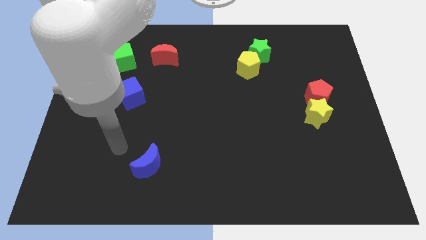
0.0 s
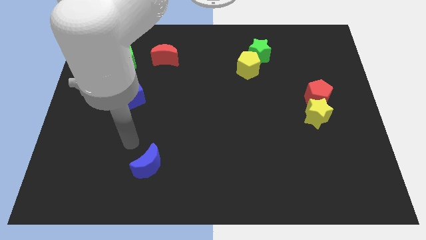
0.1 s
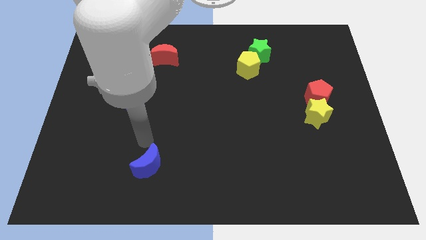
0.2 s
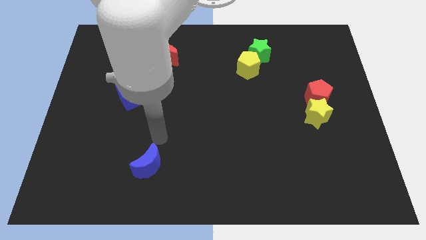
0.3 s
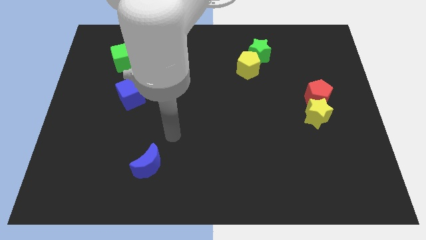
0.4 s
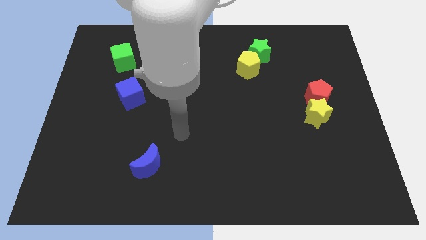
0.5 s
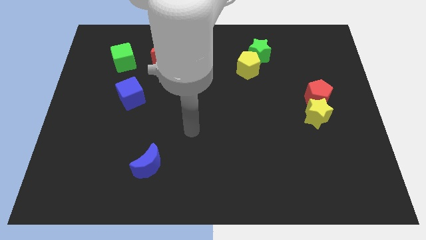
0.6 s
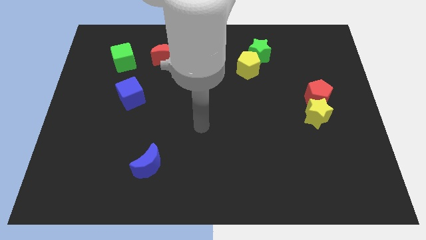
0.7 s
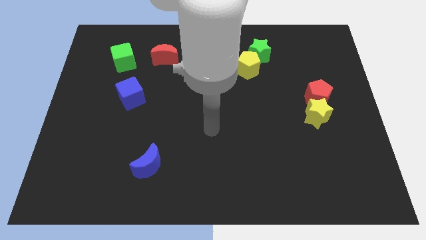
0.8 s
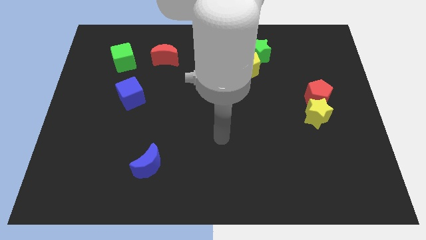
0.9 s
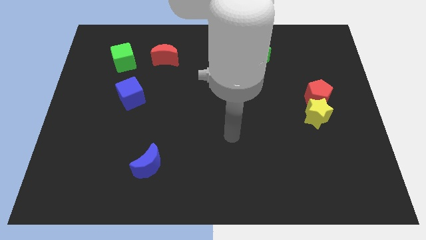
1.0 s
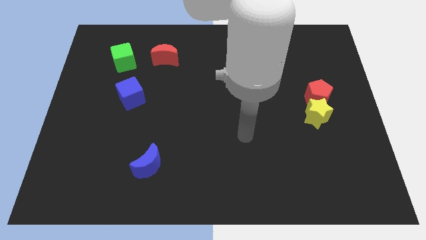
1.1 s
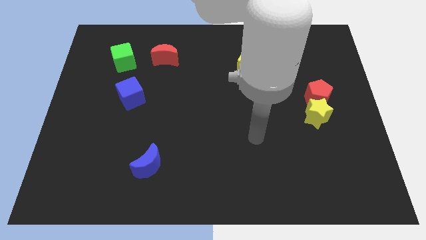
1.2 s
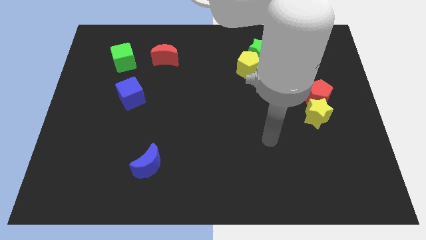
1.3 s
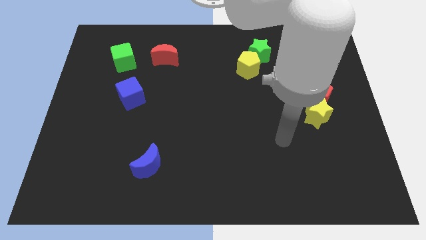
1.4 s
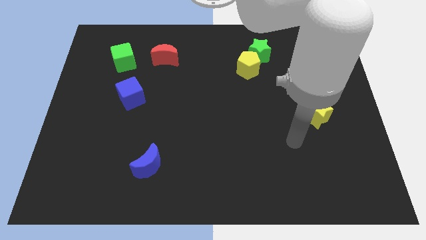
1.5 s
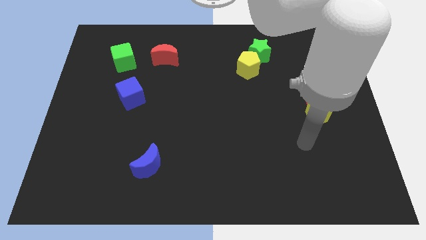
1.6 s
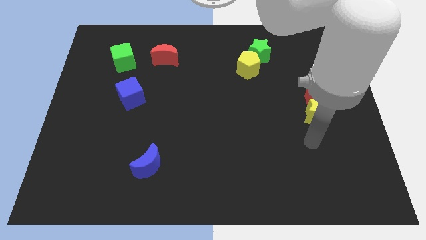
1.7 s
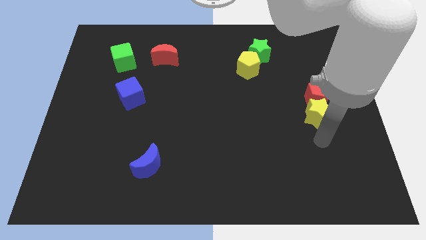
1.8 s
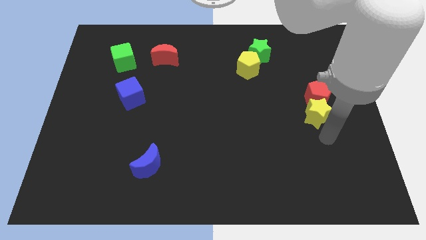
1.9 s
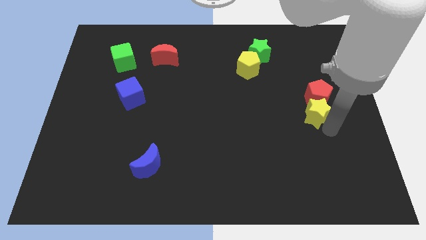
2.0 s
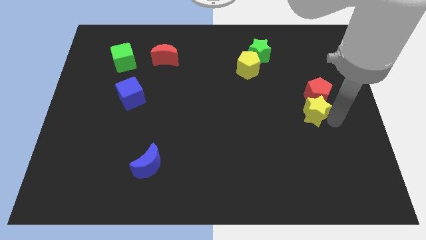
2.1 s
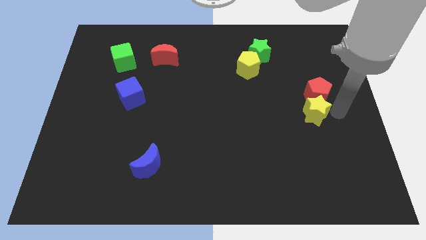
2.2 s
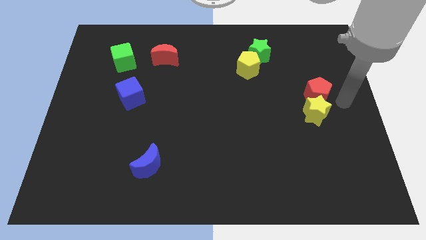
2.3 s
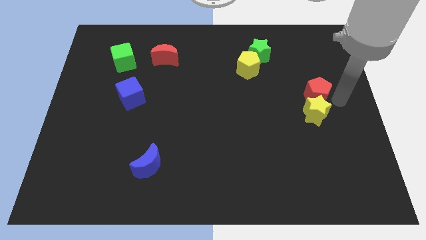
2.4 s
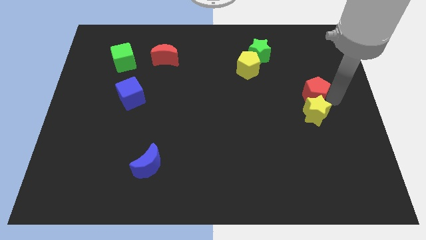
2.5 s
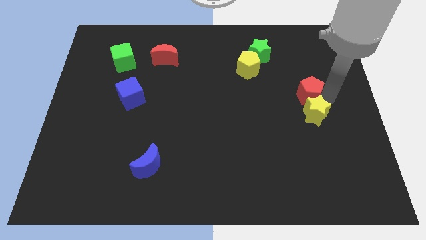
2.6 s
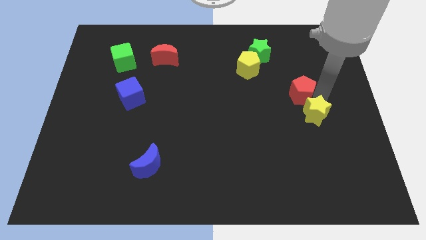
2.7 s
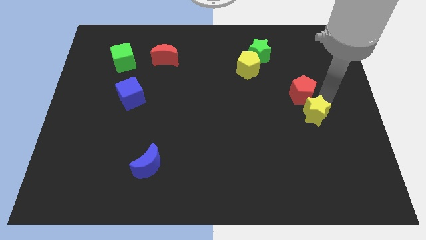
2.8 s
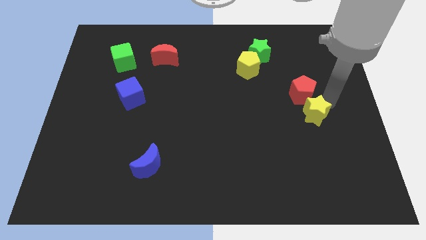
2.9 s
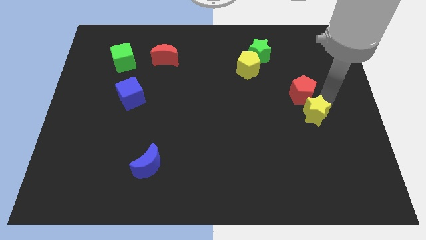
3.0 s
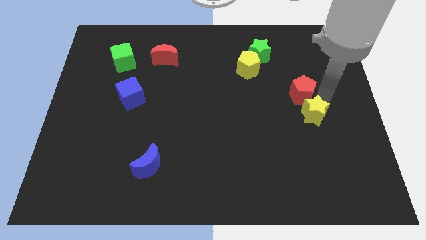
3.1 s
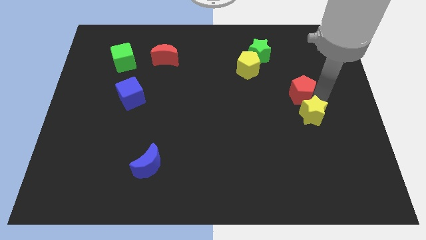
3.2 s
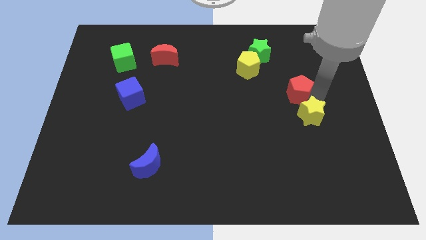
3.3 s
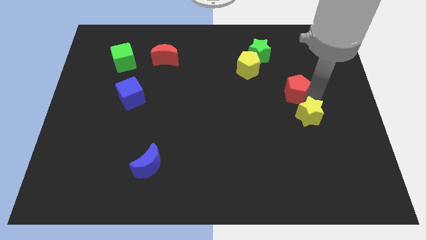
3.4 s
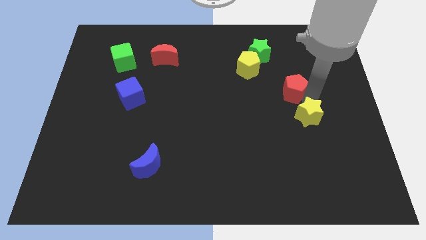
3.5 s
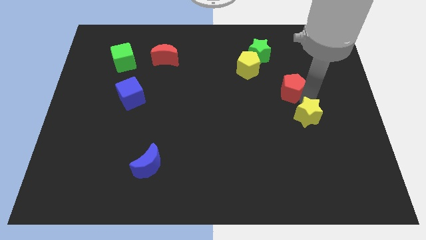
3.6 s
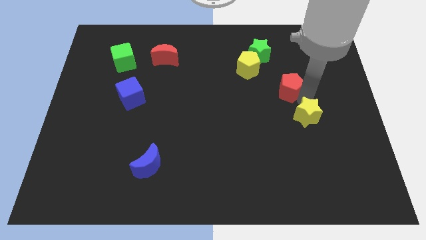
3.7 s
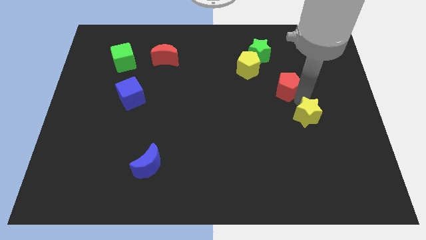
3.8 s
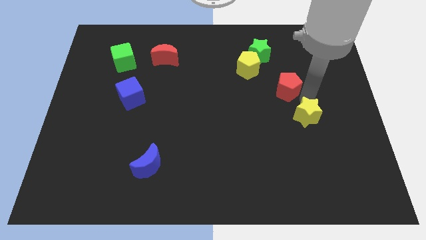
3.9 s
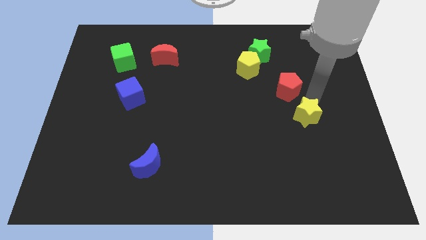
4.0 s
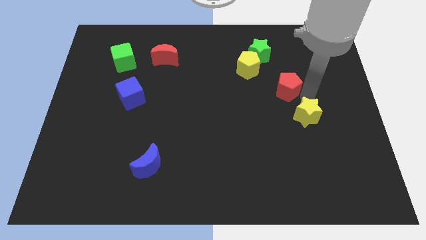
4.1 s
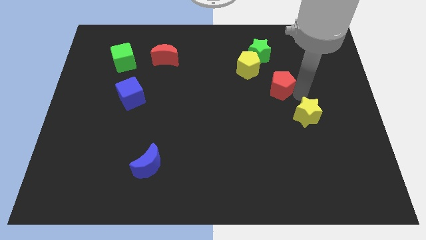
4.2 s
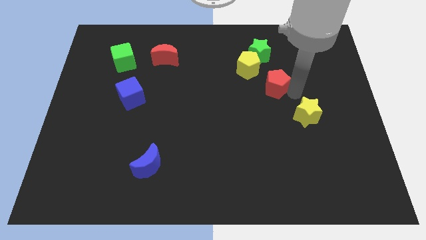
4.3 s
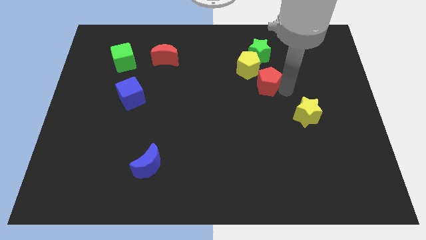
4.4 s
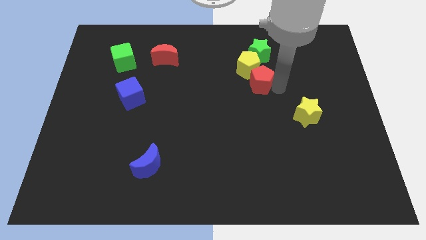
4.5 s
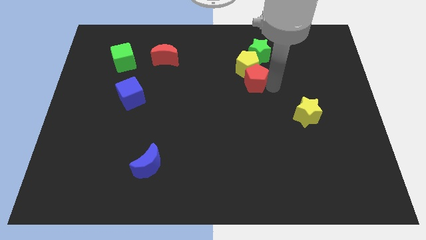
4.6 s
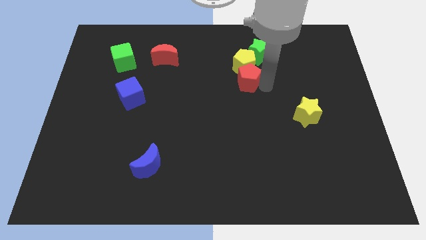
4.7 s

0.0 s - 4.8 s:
slide the red pentagon to the bottom left of the green star

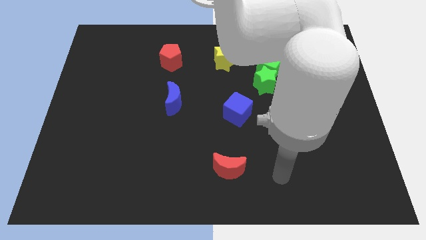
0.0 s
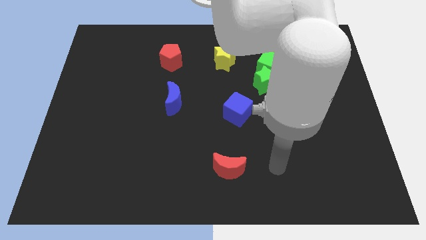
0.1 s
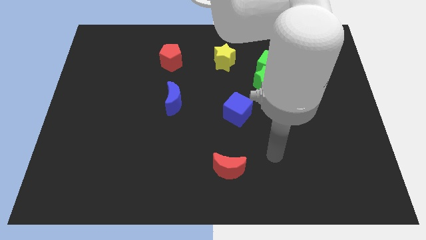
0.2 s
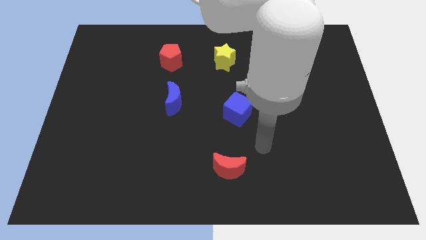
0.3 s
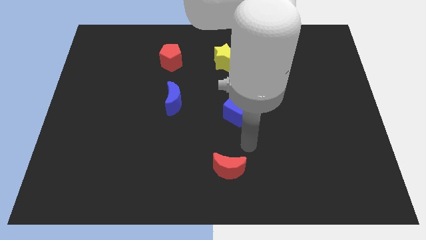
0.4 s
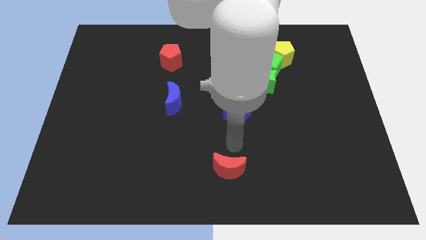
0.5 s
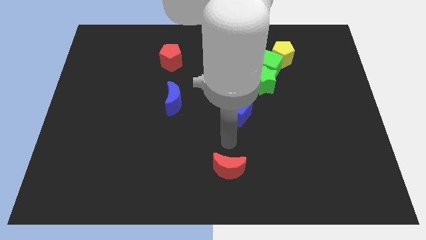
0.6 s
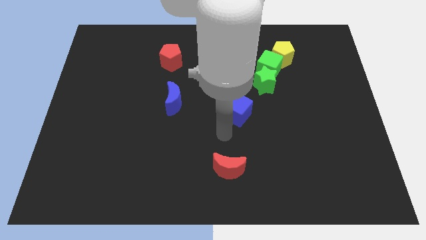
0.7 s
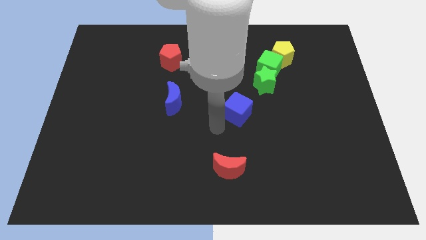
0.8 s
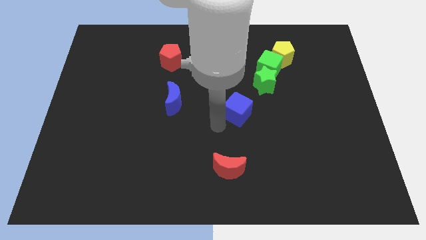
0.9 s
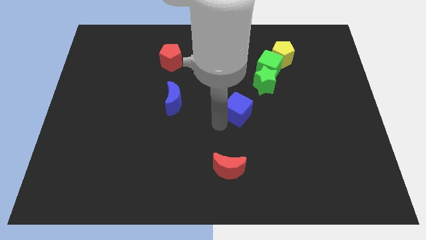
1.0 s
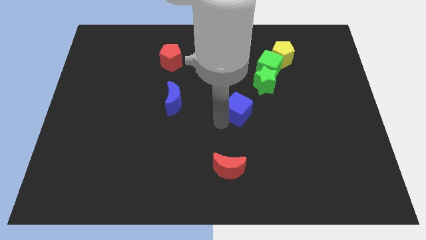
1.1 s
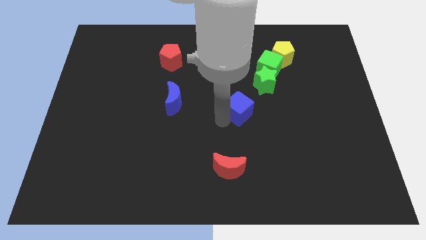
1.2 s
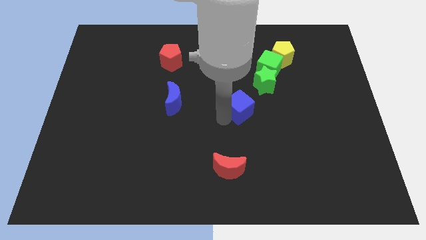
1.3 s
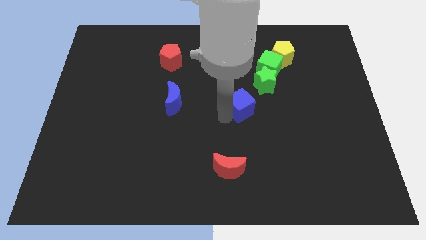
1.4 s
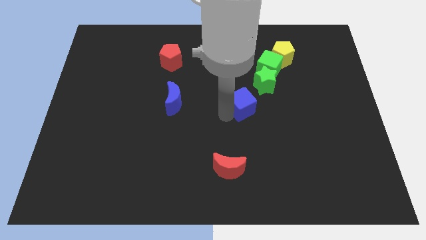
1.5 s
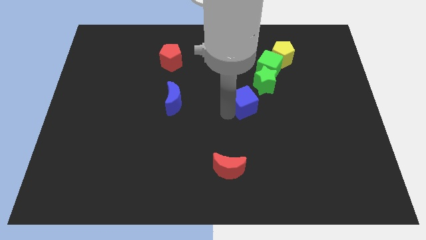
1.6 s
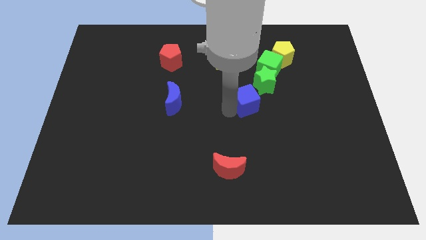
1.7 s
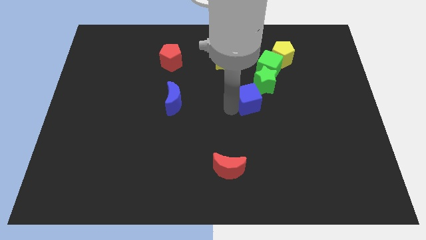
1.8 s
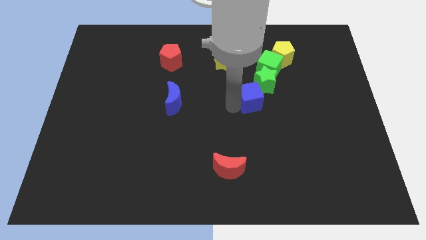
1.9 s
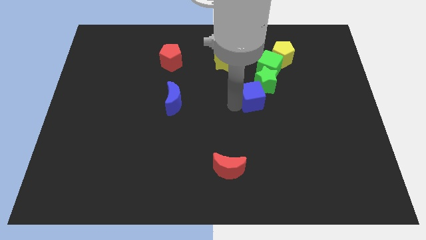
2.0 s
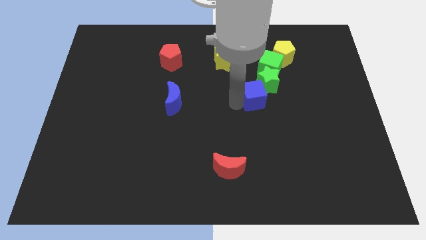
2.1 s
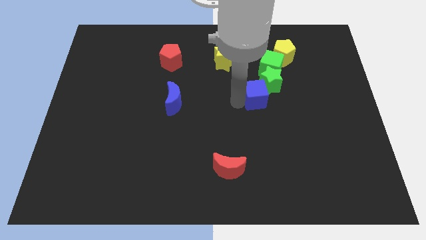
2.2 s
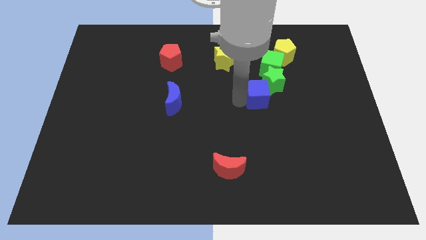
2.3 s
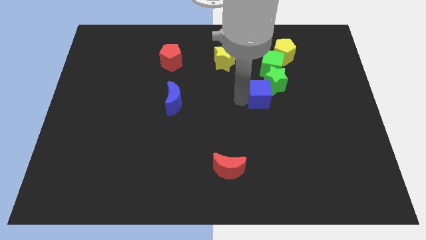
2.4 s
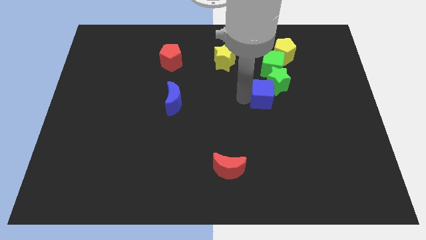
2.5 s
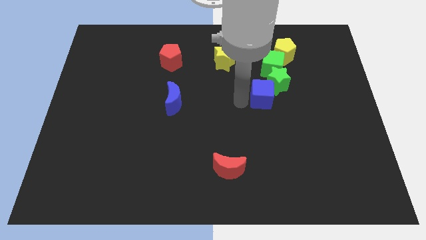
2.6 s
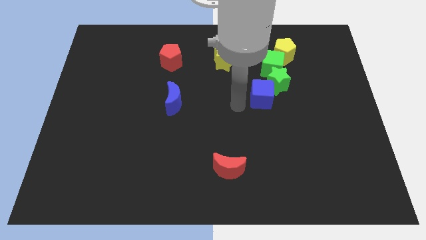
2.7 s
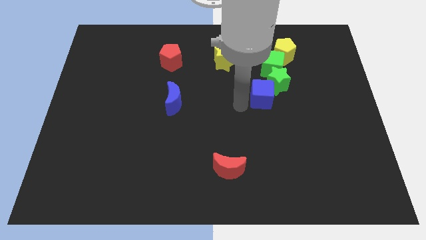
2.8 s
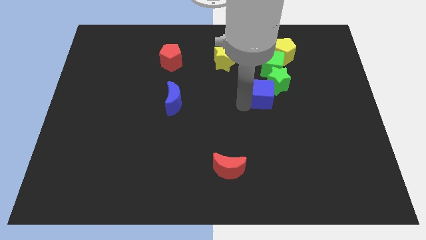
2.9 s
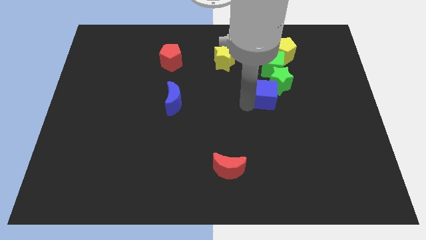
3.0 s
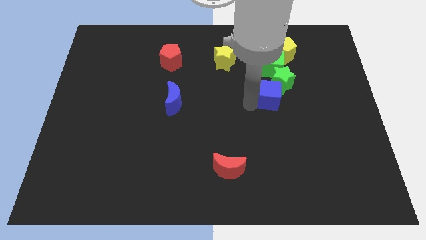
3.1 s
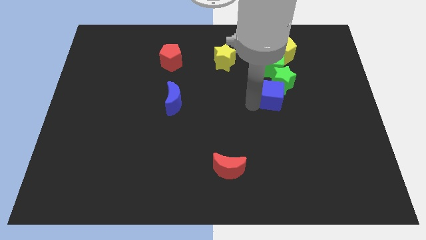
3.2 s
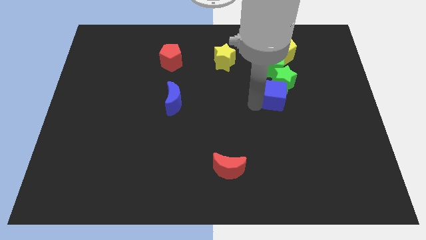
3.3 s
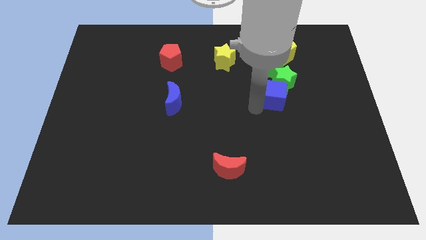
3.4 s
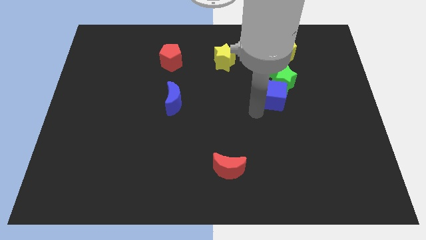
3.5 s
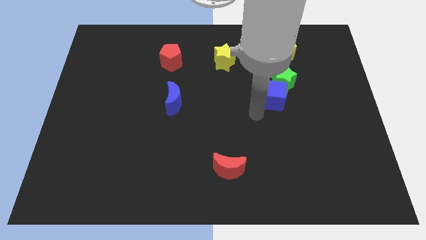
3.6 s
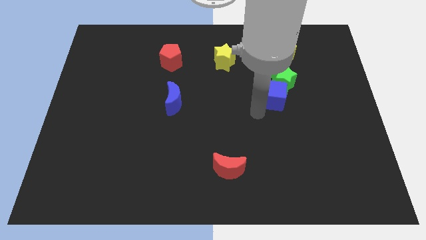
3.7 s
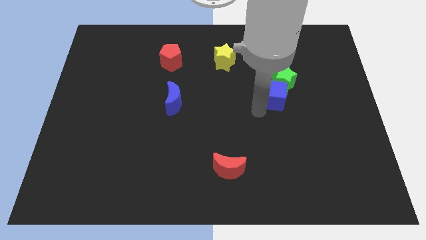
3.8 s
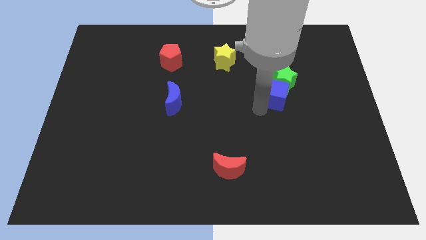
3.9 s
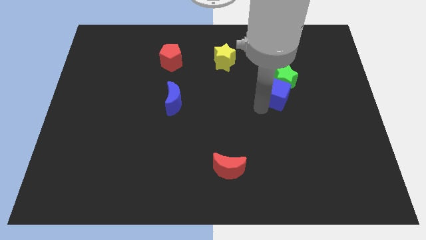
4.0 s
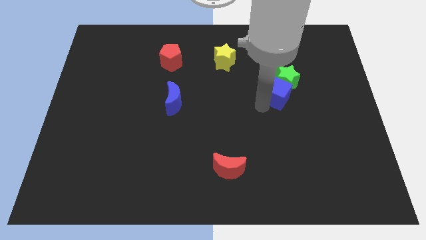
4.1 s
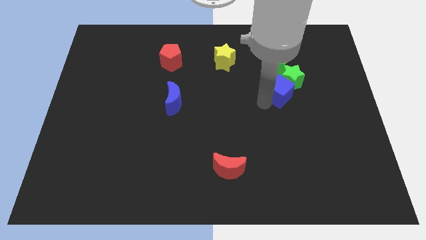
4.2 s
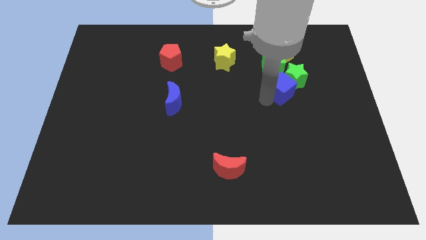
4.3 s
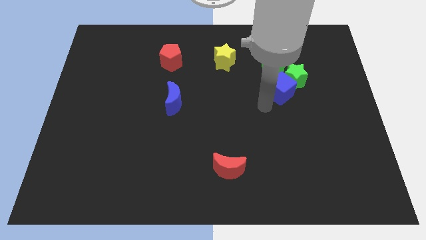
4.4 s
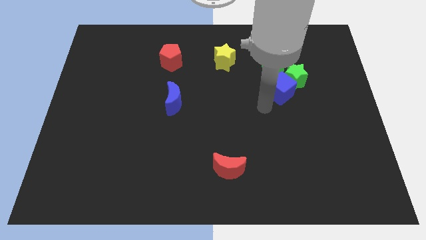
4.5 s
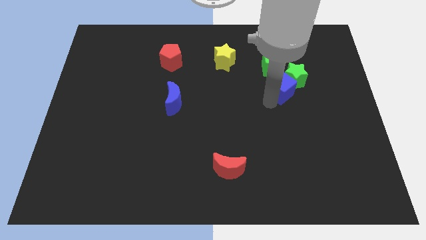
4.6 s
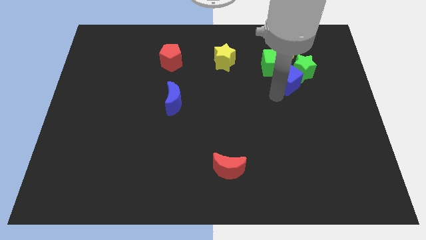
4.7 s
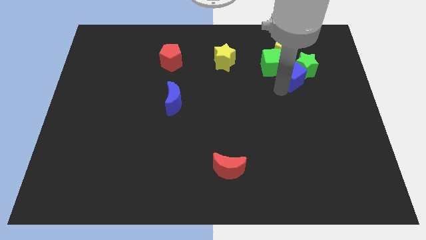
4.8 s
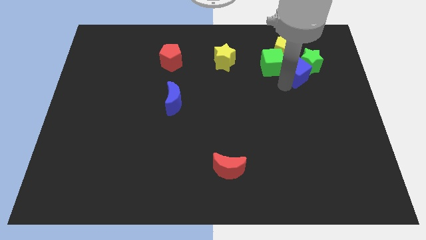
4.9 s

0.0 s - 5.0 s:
slide the blue cube to the bottom right side of the yellow pentagon
